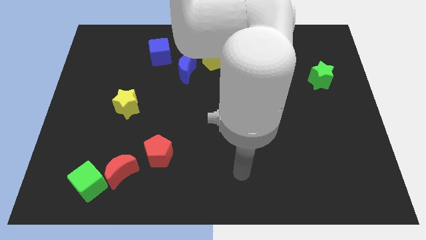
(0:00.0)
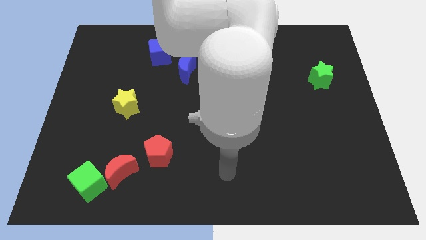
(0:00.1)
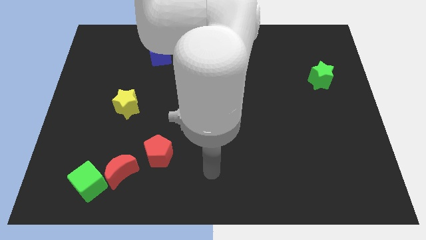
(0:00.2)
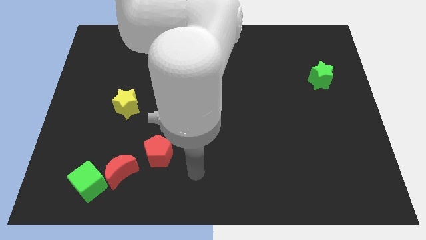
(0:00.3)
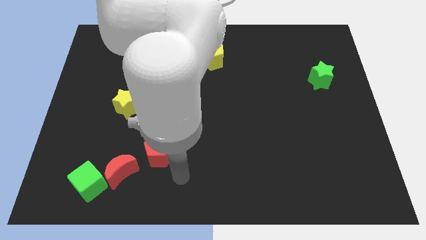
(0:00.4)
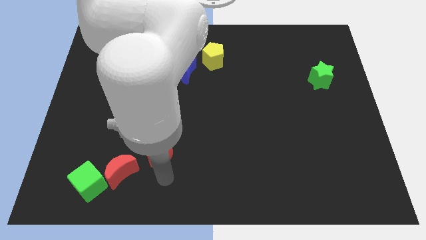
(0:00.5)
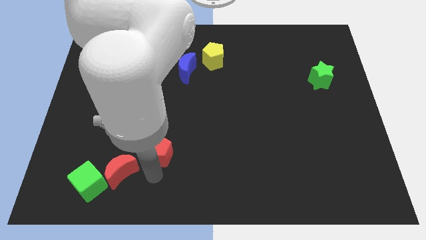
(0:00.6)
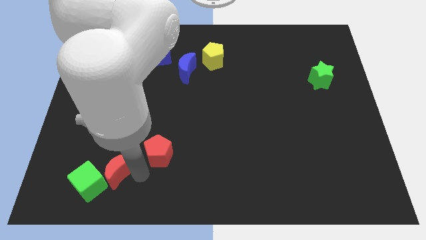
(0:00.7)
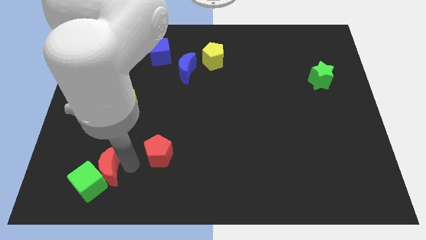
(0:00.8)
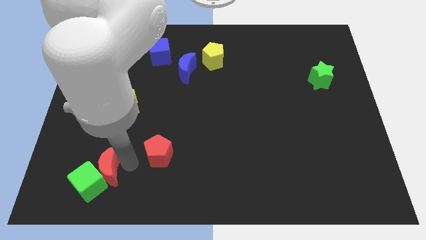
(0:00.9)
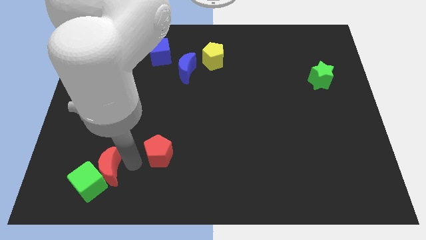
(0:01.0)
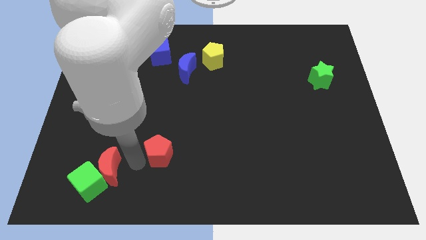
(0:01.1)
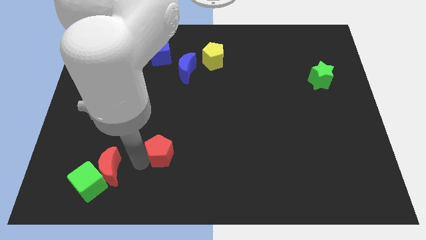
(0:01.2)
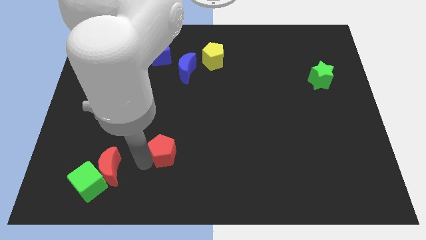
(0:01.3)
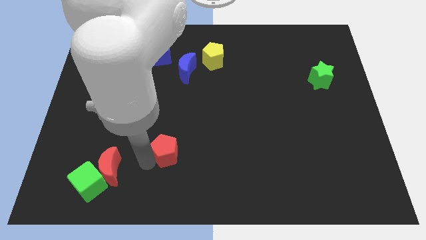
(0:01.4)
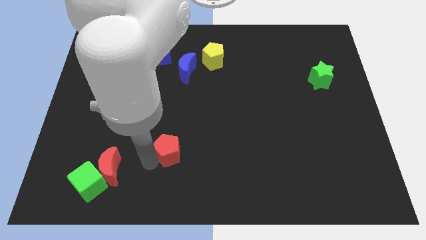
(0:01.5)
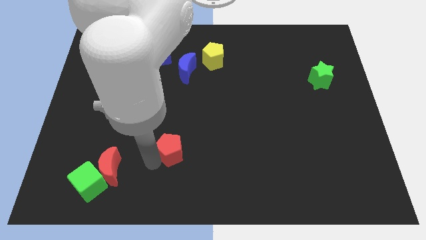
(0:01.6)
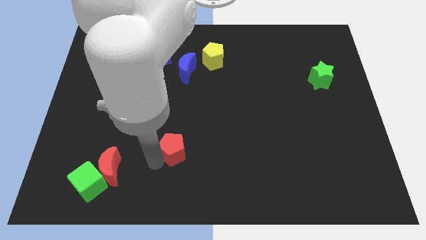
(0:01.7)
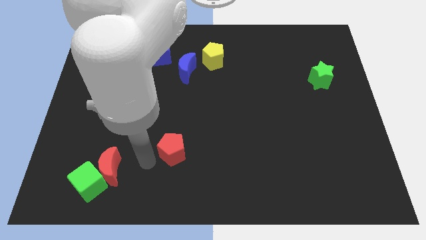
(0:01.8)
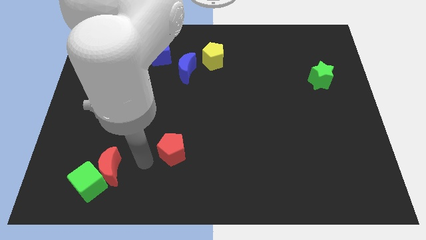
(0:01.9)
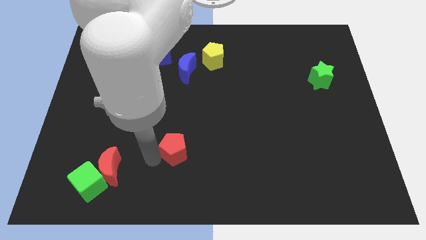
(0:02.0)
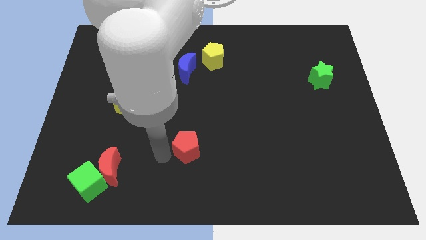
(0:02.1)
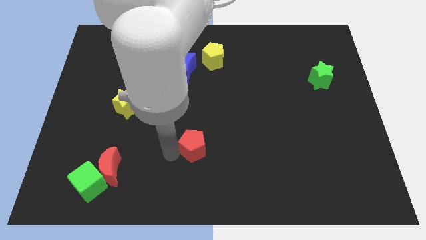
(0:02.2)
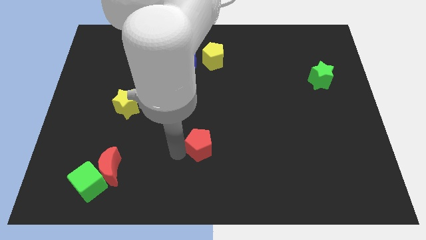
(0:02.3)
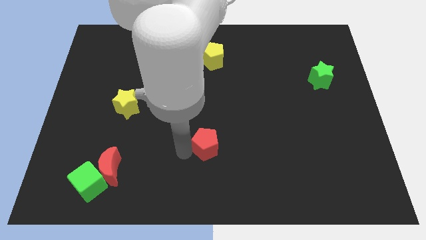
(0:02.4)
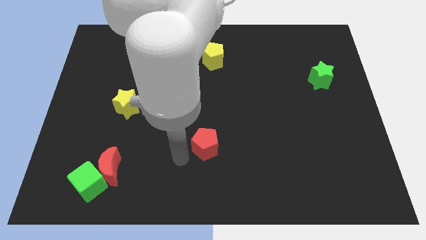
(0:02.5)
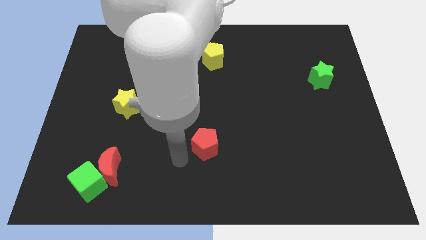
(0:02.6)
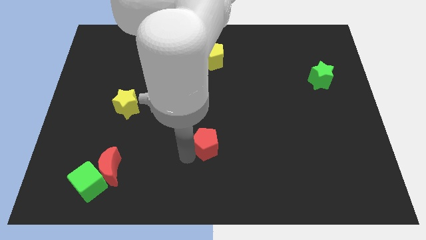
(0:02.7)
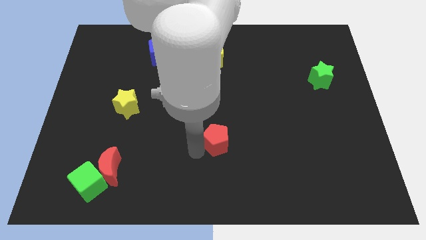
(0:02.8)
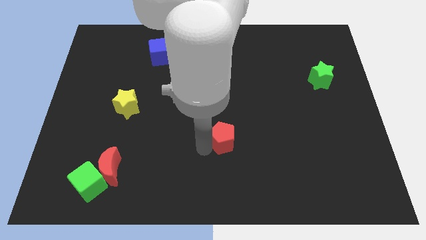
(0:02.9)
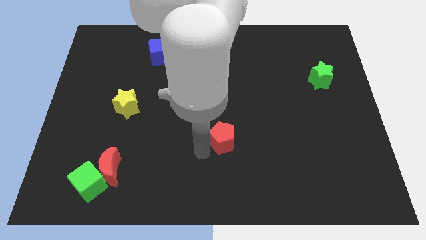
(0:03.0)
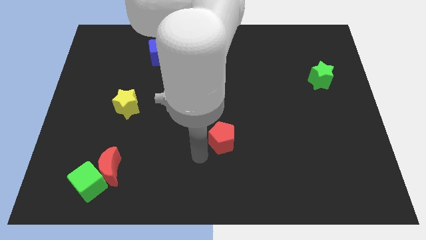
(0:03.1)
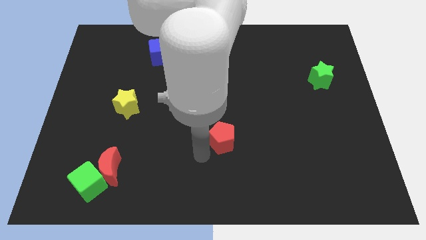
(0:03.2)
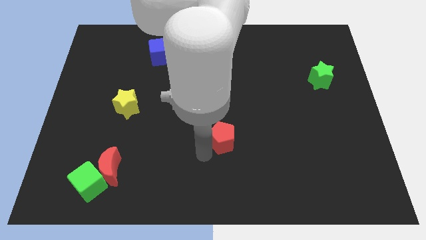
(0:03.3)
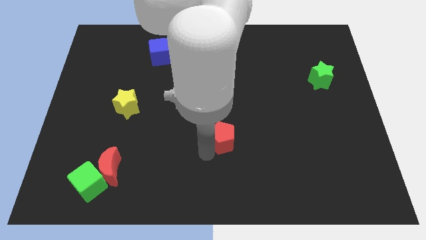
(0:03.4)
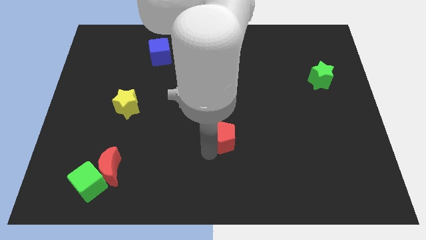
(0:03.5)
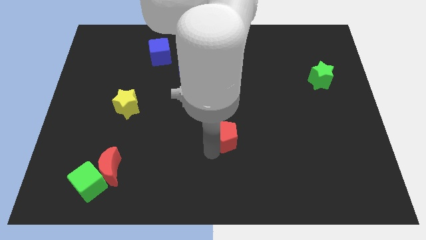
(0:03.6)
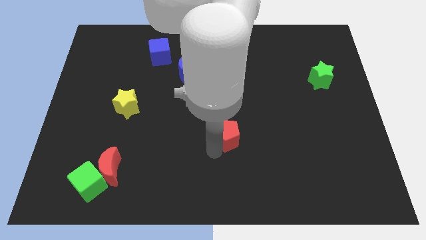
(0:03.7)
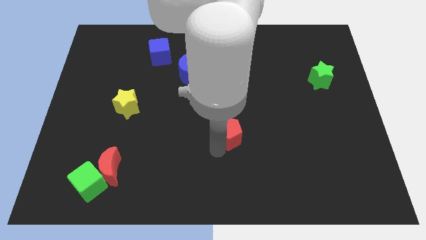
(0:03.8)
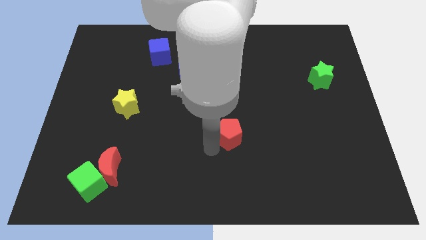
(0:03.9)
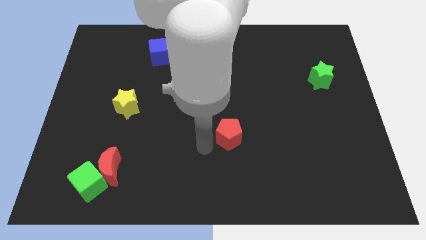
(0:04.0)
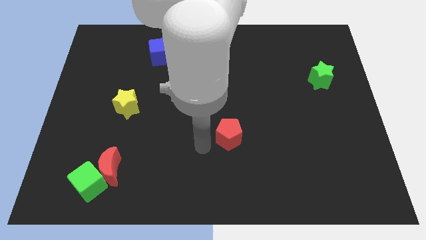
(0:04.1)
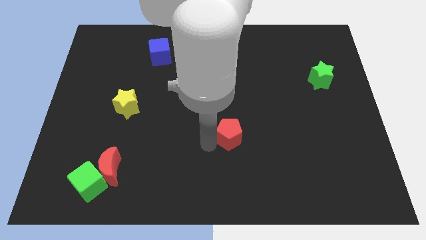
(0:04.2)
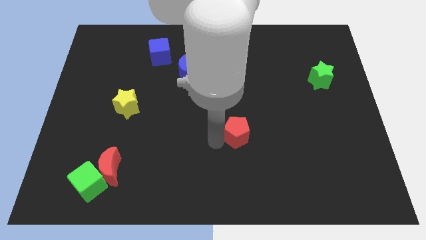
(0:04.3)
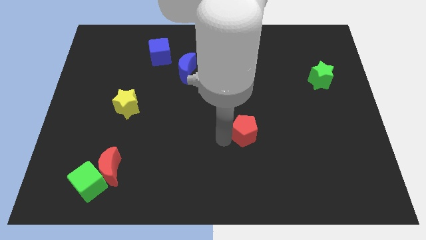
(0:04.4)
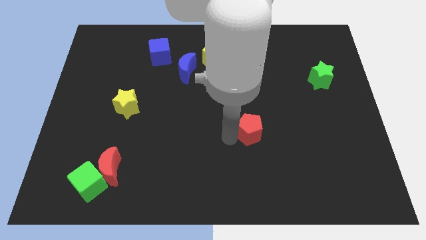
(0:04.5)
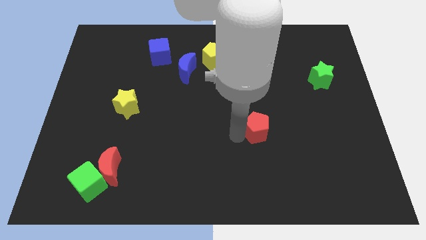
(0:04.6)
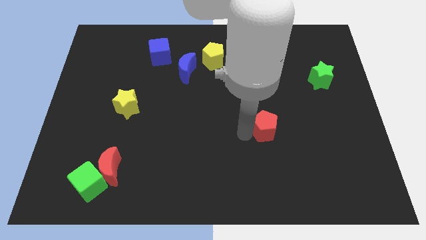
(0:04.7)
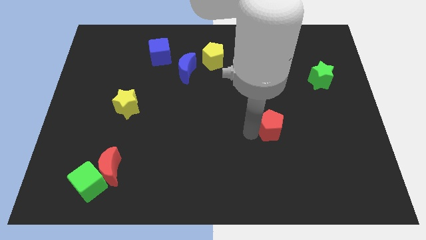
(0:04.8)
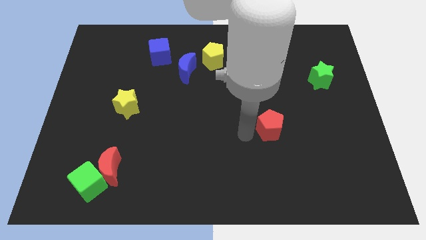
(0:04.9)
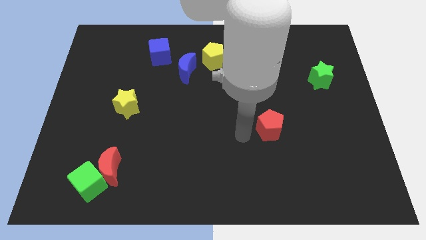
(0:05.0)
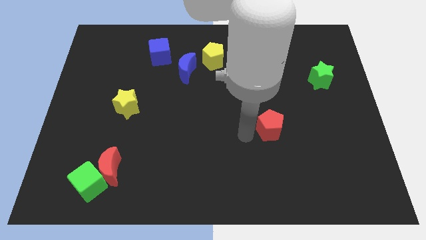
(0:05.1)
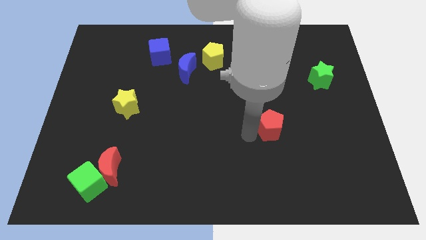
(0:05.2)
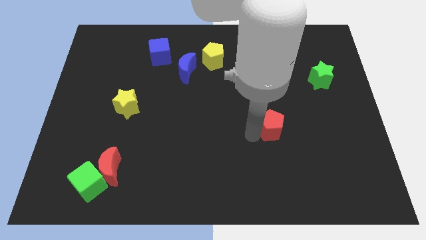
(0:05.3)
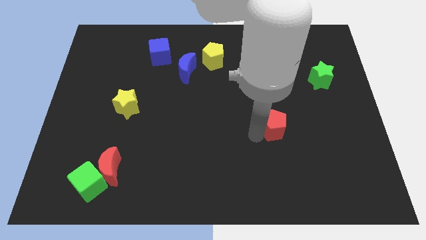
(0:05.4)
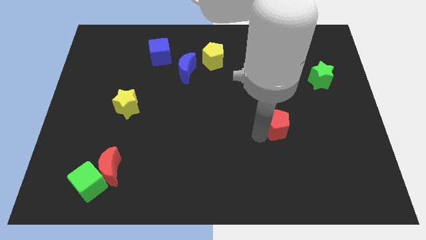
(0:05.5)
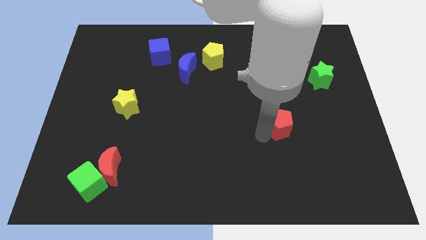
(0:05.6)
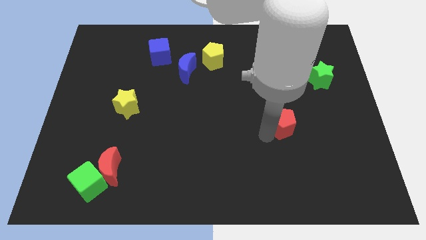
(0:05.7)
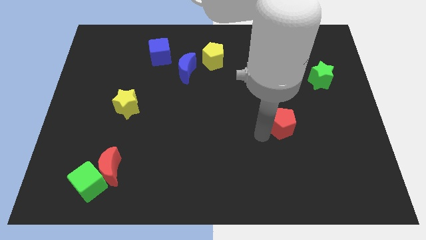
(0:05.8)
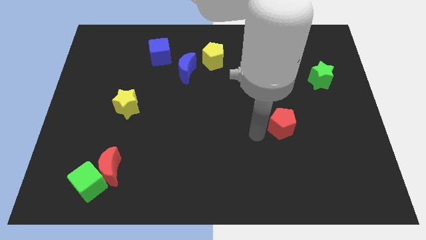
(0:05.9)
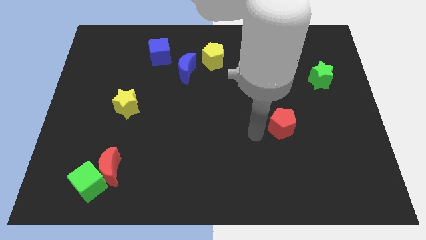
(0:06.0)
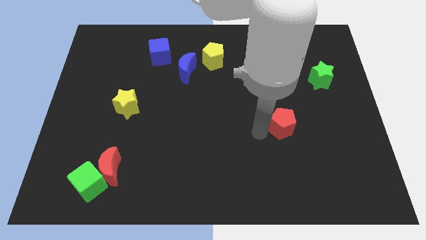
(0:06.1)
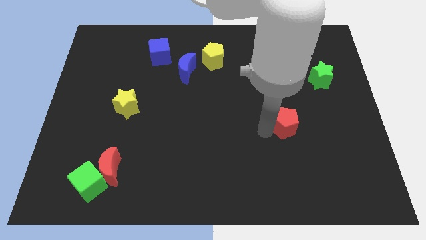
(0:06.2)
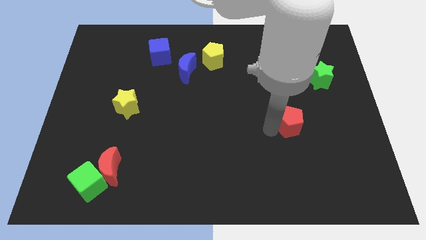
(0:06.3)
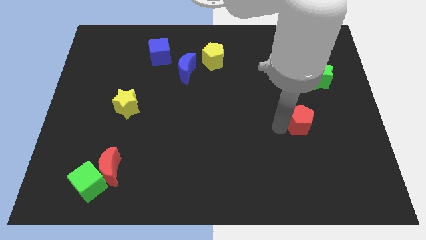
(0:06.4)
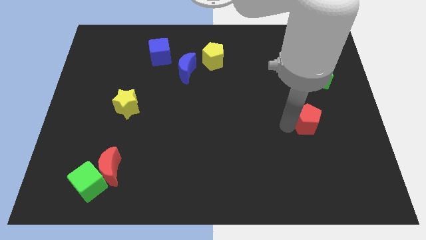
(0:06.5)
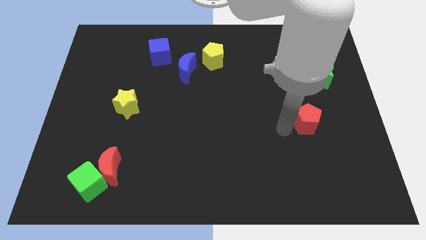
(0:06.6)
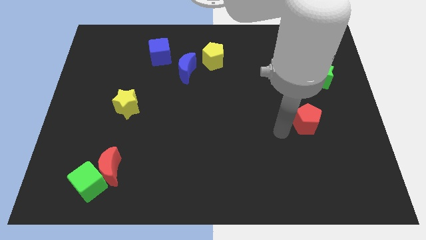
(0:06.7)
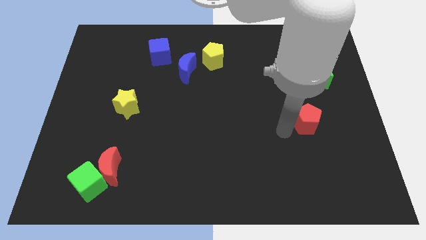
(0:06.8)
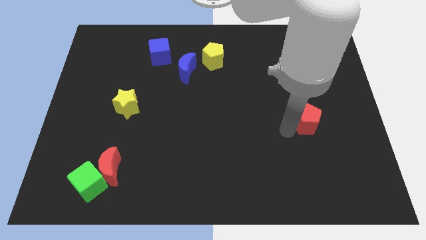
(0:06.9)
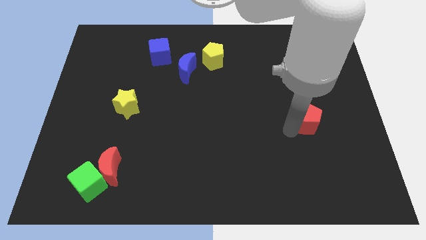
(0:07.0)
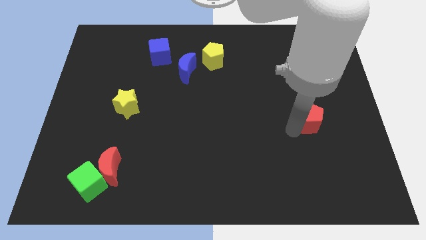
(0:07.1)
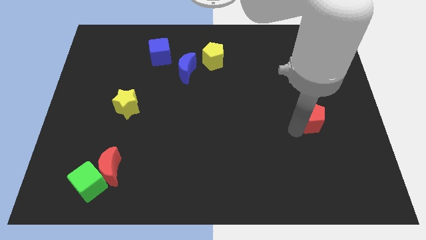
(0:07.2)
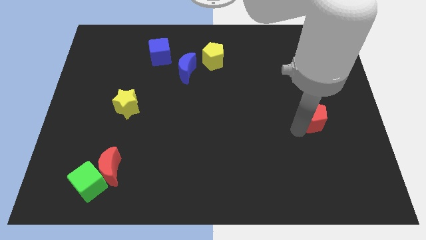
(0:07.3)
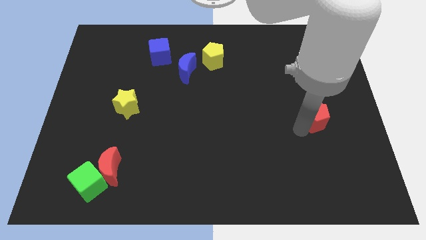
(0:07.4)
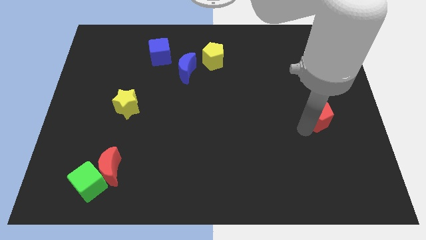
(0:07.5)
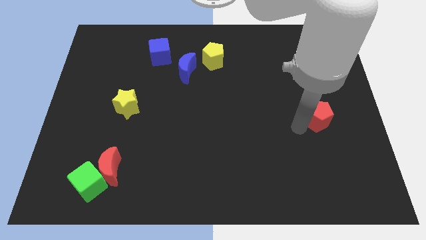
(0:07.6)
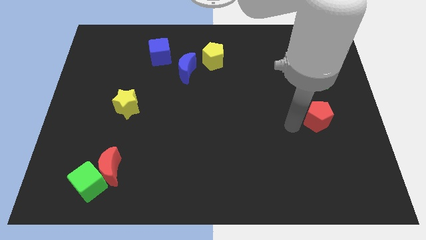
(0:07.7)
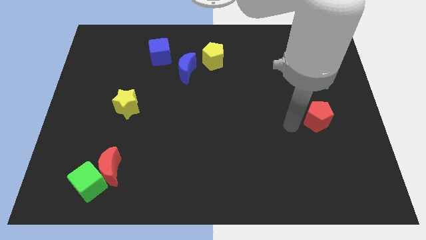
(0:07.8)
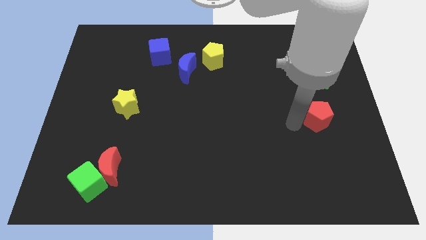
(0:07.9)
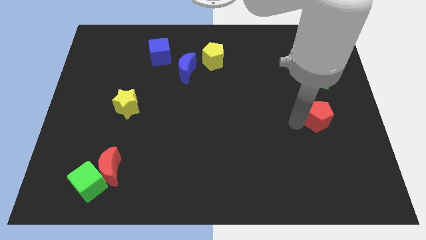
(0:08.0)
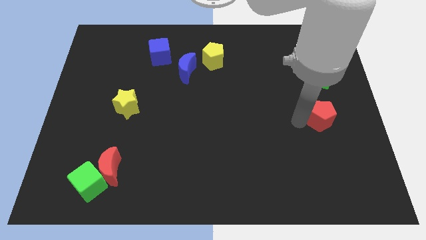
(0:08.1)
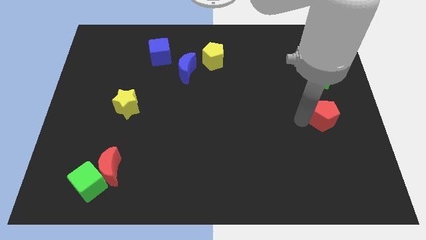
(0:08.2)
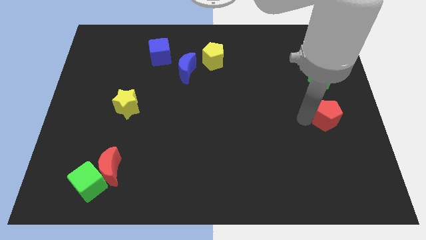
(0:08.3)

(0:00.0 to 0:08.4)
slide the red pentagon to the right side
